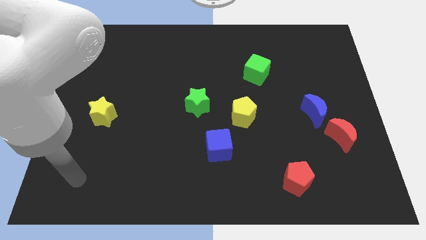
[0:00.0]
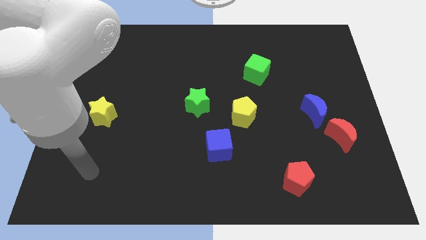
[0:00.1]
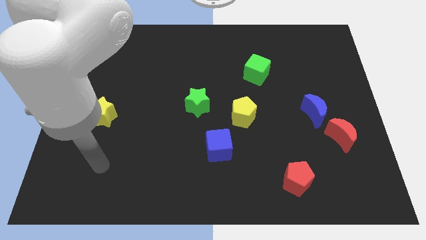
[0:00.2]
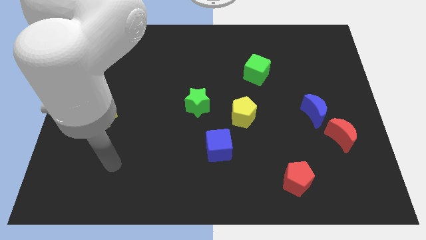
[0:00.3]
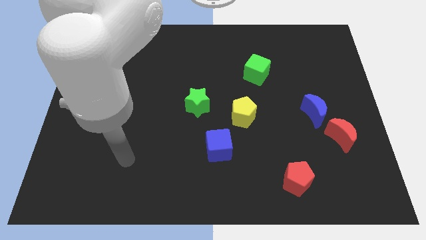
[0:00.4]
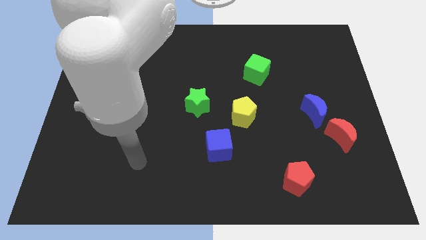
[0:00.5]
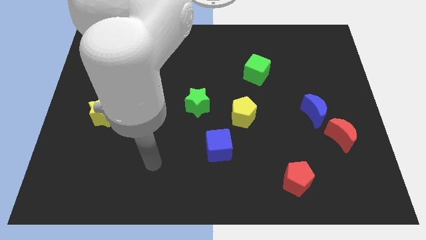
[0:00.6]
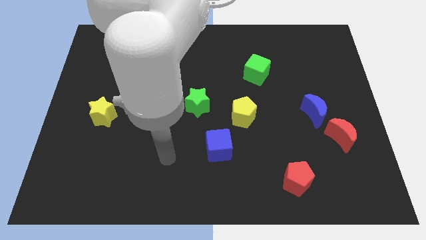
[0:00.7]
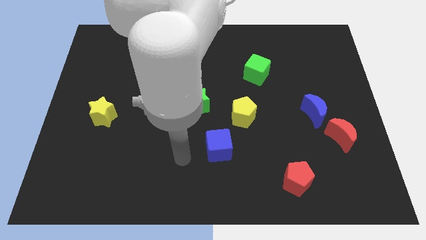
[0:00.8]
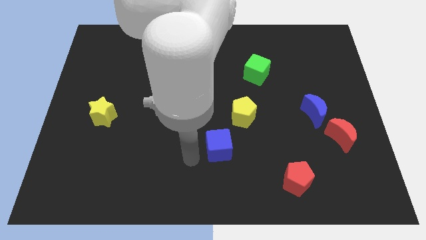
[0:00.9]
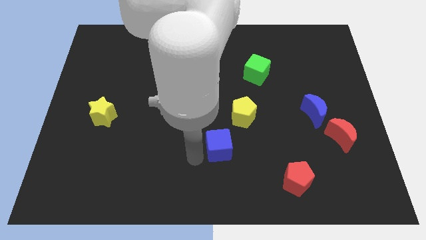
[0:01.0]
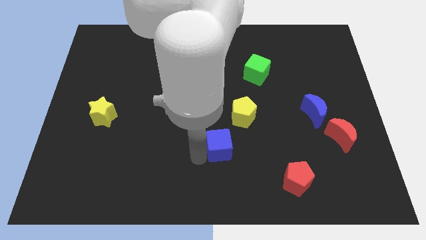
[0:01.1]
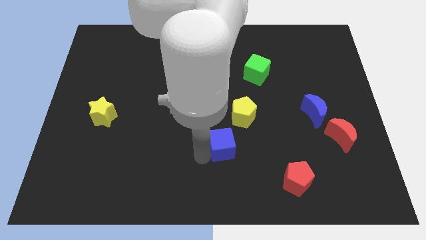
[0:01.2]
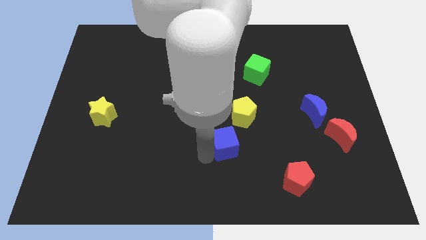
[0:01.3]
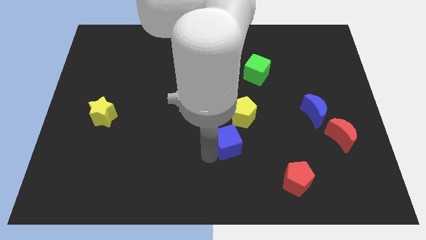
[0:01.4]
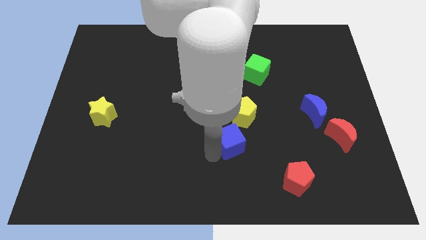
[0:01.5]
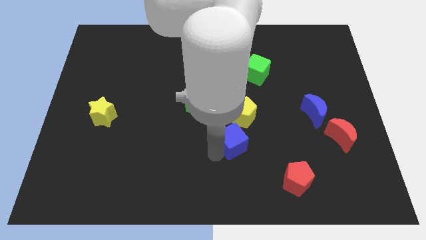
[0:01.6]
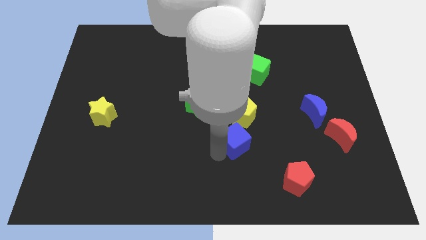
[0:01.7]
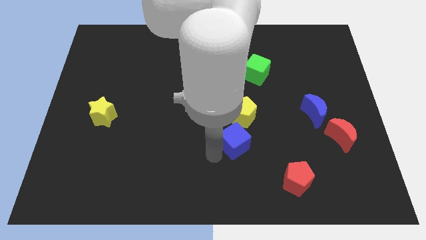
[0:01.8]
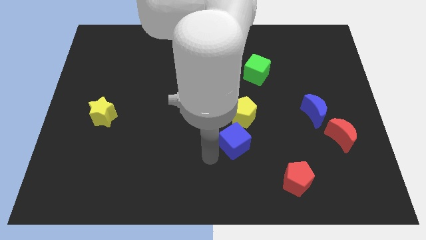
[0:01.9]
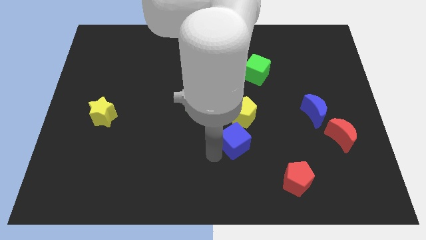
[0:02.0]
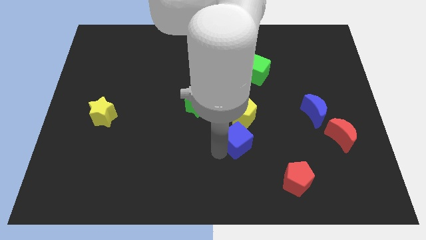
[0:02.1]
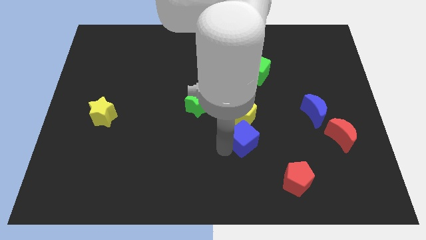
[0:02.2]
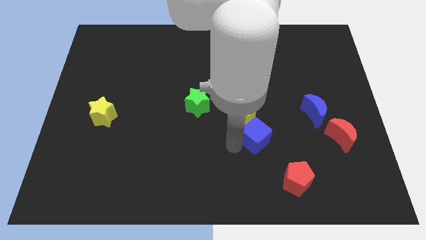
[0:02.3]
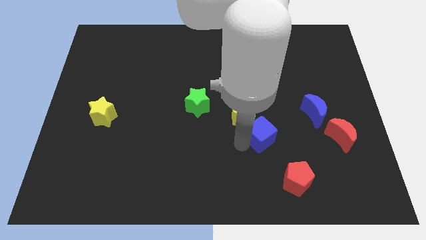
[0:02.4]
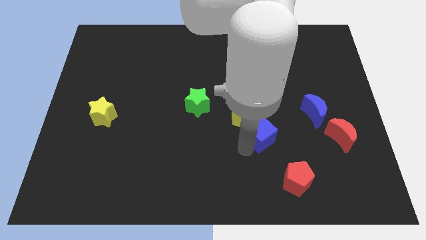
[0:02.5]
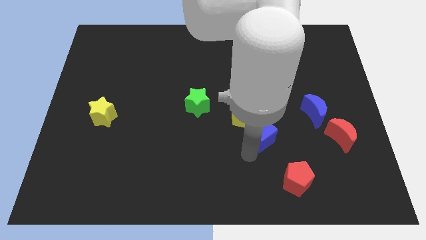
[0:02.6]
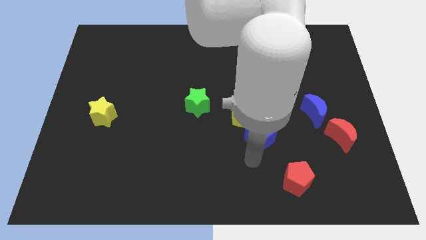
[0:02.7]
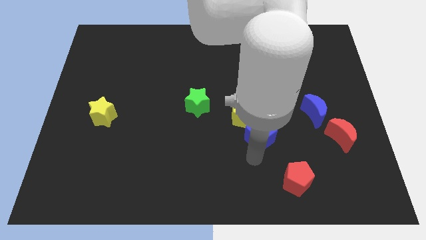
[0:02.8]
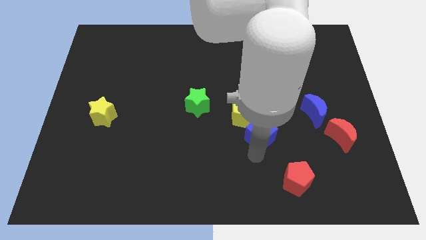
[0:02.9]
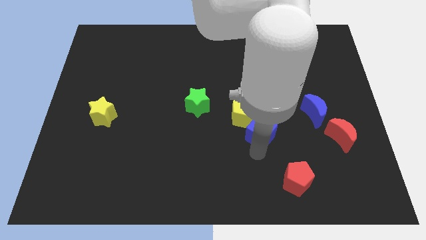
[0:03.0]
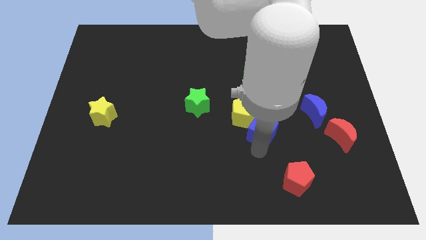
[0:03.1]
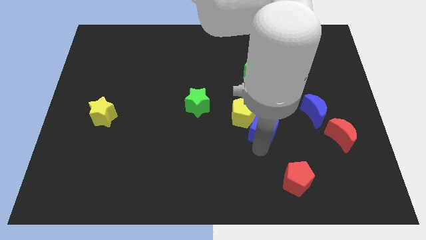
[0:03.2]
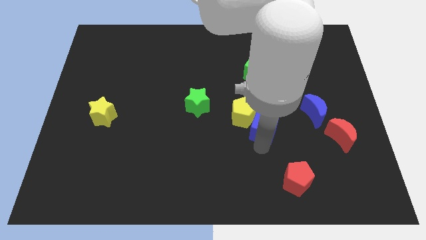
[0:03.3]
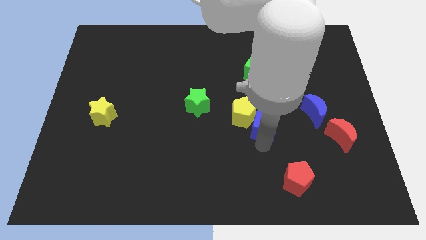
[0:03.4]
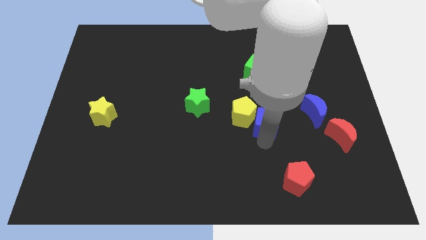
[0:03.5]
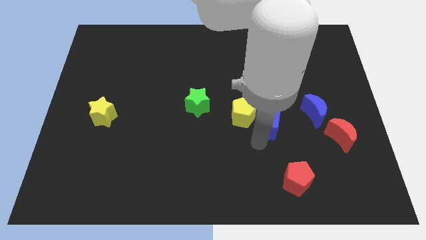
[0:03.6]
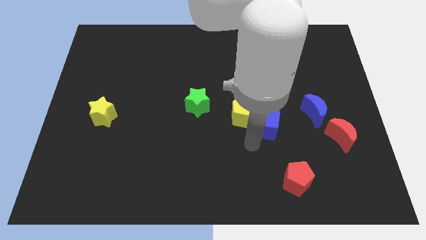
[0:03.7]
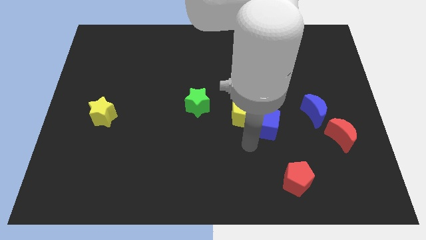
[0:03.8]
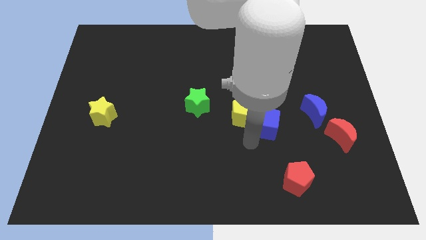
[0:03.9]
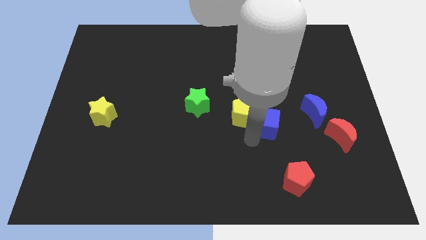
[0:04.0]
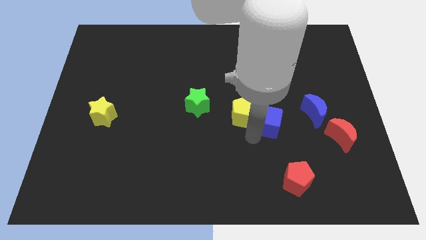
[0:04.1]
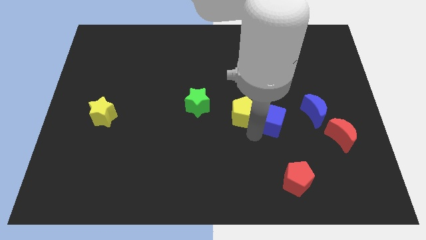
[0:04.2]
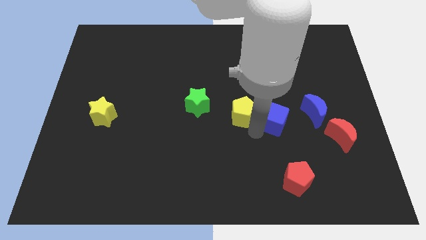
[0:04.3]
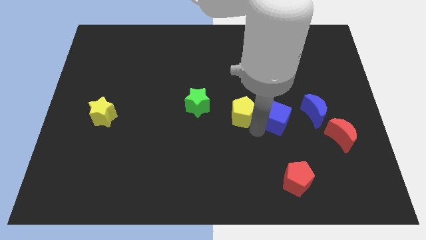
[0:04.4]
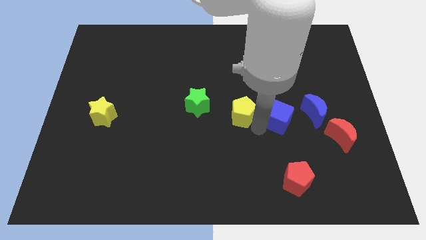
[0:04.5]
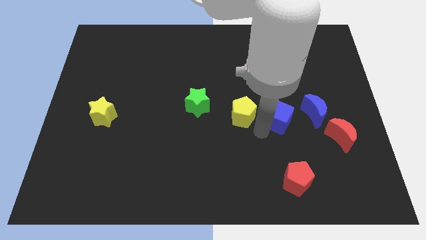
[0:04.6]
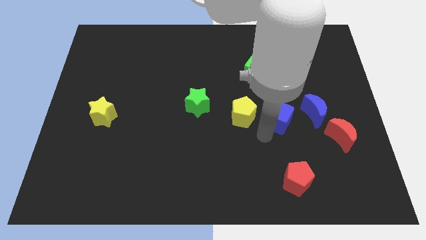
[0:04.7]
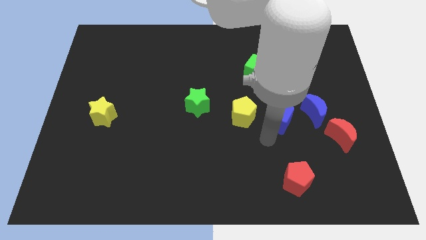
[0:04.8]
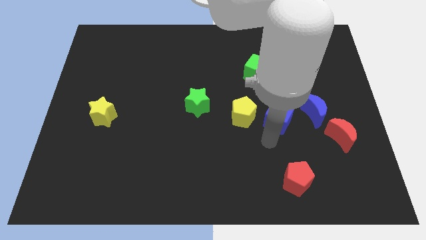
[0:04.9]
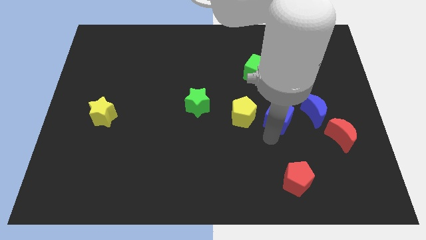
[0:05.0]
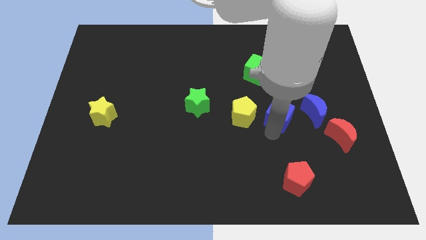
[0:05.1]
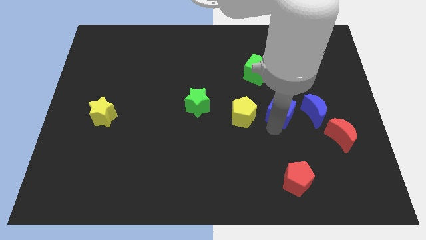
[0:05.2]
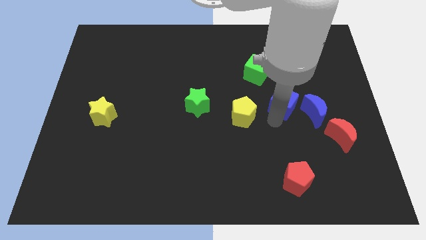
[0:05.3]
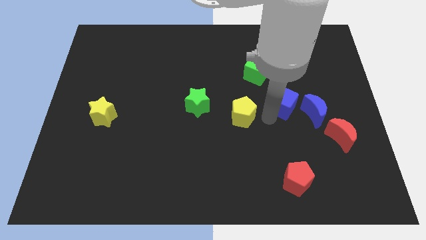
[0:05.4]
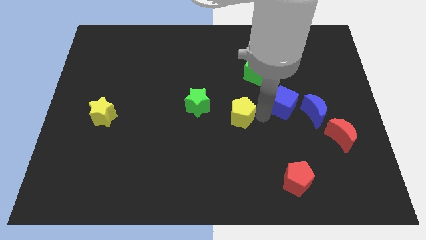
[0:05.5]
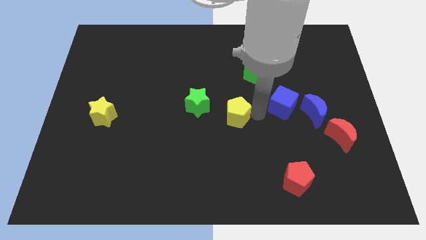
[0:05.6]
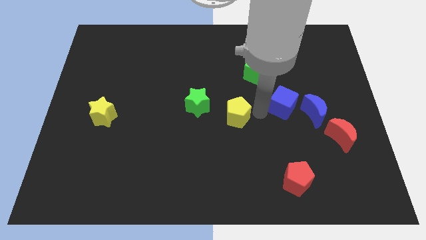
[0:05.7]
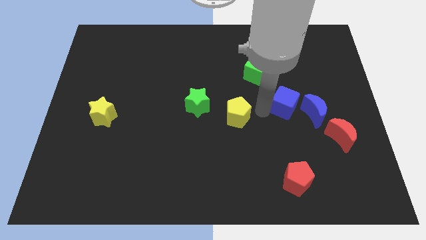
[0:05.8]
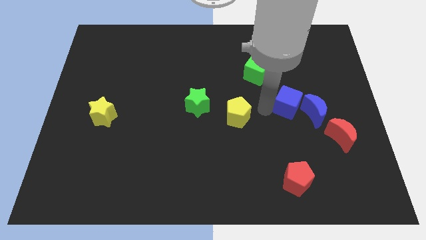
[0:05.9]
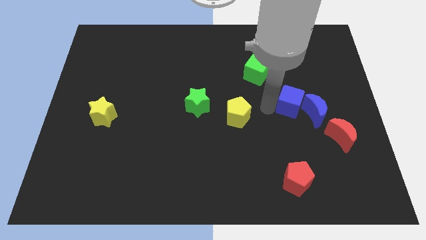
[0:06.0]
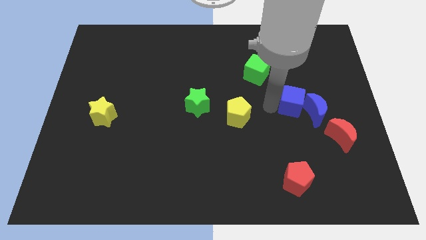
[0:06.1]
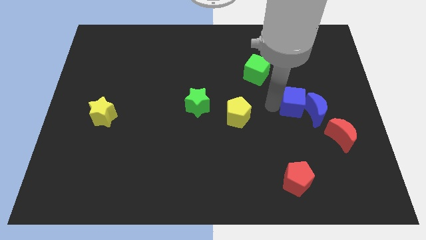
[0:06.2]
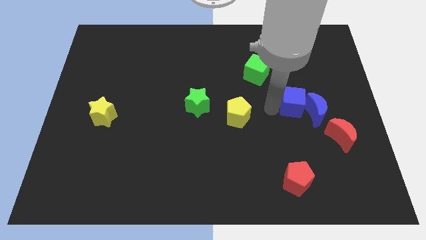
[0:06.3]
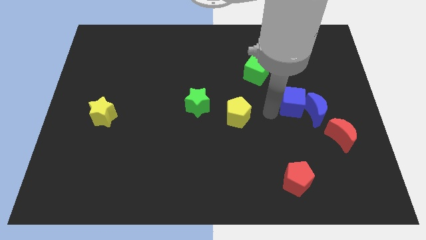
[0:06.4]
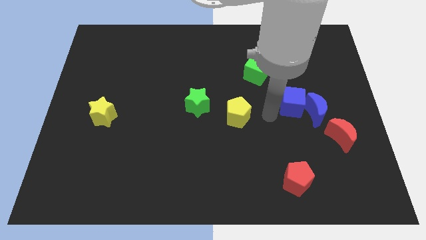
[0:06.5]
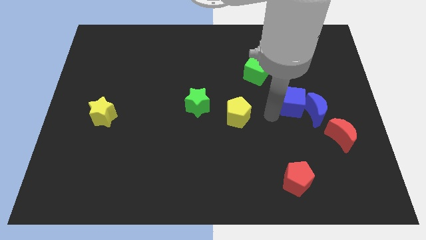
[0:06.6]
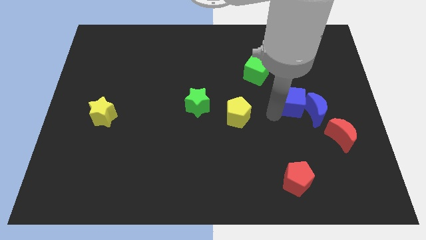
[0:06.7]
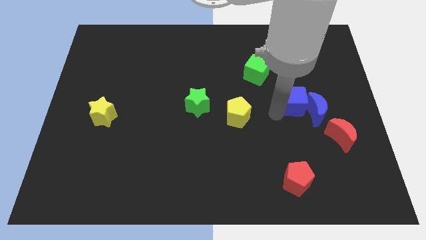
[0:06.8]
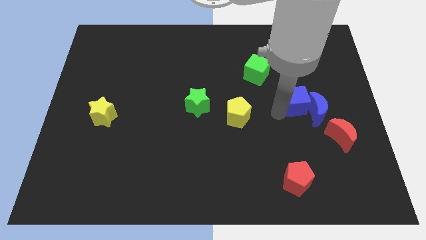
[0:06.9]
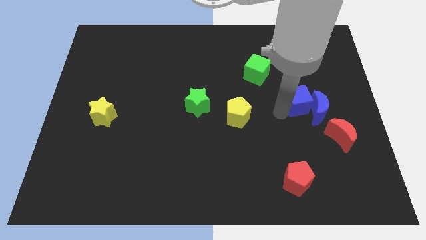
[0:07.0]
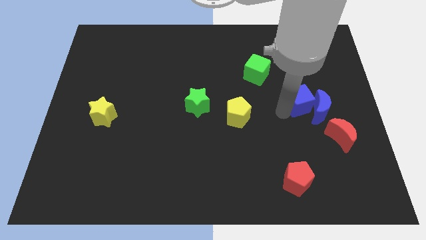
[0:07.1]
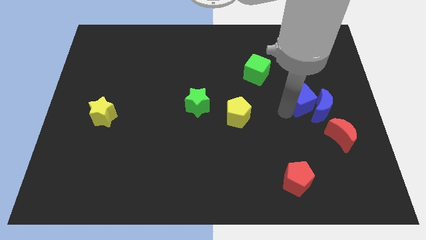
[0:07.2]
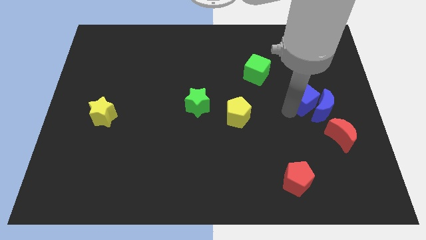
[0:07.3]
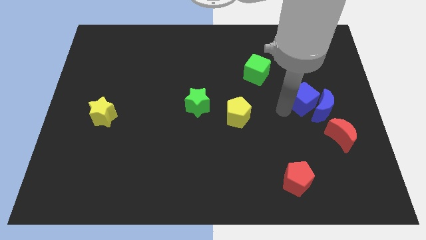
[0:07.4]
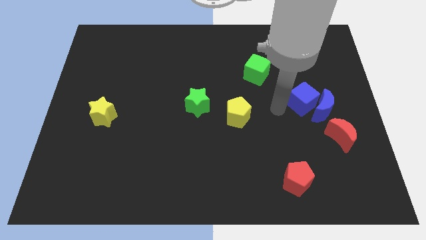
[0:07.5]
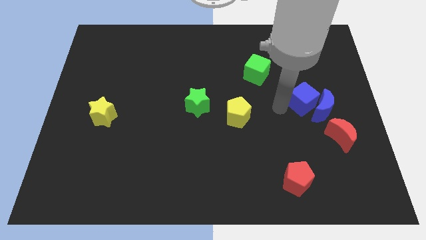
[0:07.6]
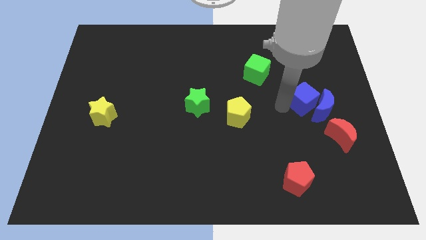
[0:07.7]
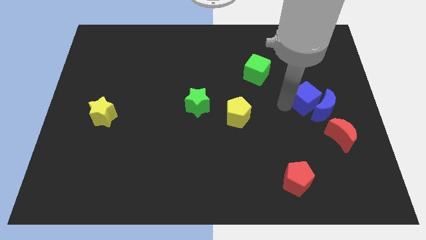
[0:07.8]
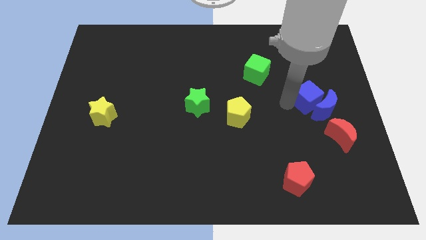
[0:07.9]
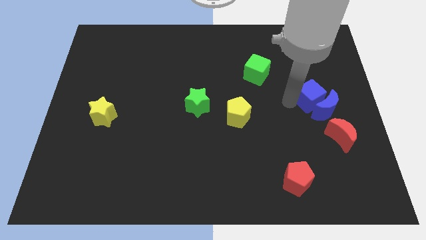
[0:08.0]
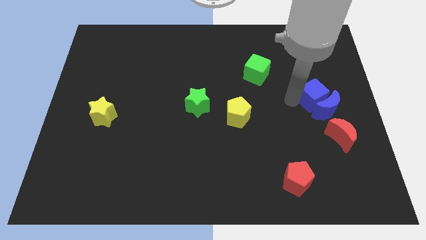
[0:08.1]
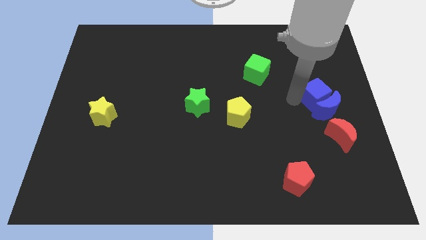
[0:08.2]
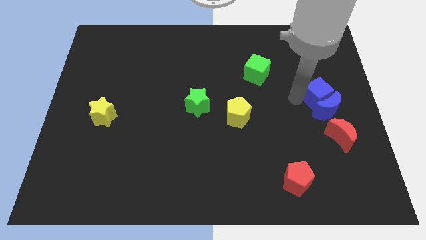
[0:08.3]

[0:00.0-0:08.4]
push the blue cube to the right side
